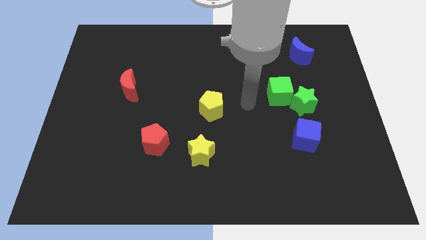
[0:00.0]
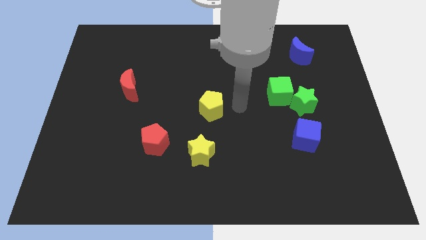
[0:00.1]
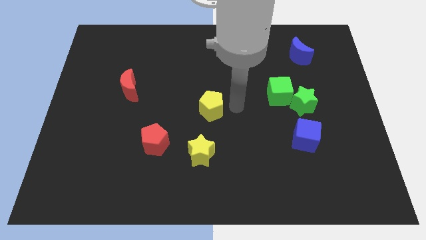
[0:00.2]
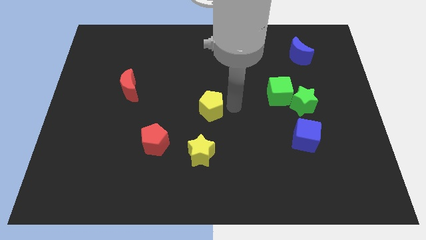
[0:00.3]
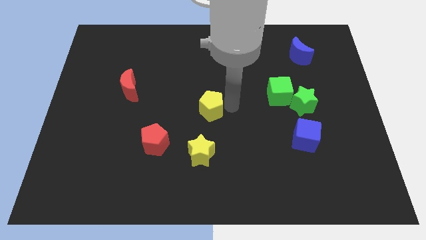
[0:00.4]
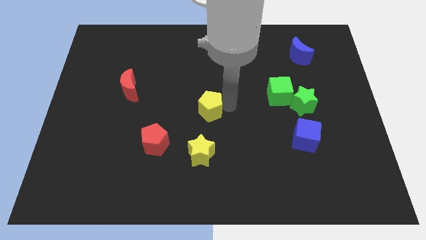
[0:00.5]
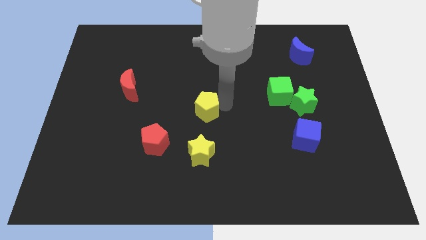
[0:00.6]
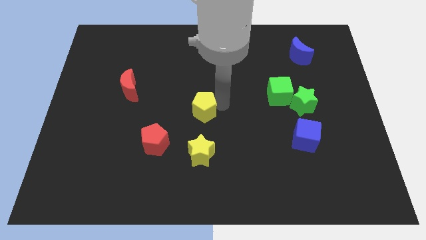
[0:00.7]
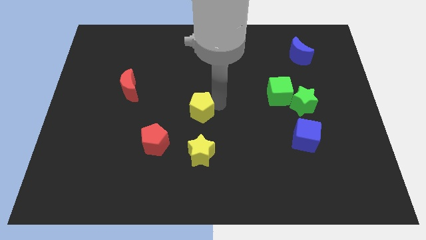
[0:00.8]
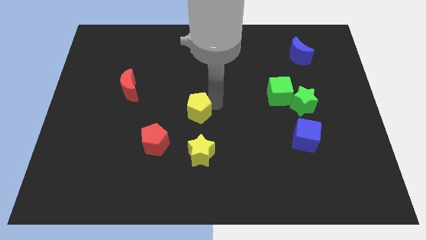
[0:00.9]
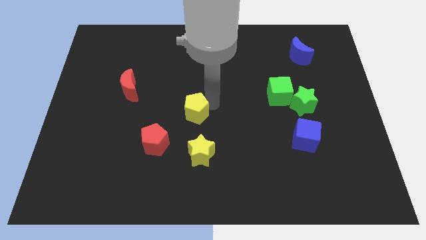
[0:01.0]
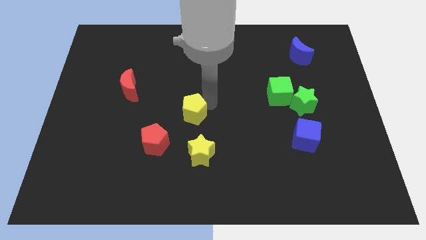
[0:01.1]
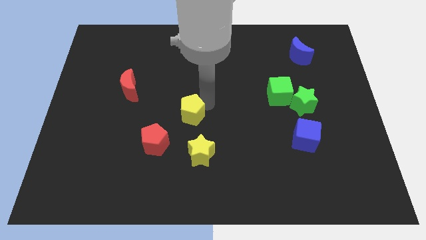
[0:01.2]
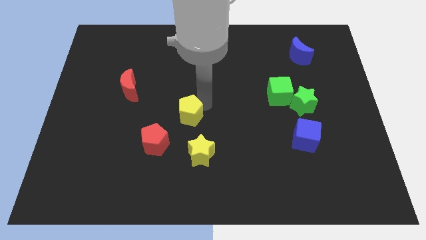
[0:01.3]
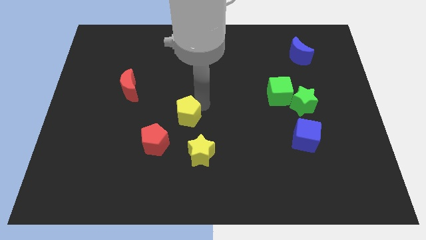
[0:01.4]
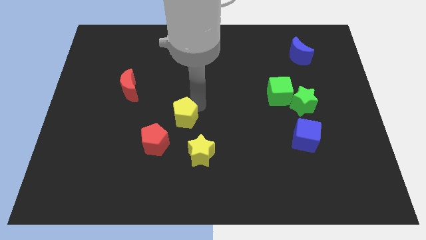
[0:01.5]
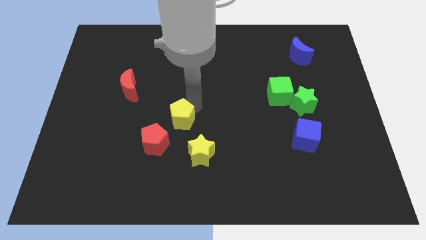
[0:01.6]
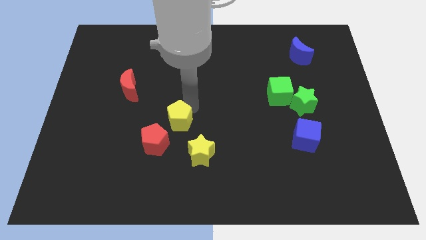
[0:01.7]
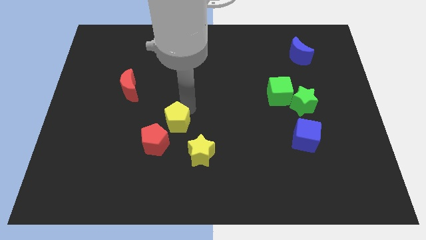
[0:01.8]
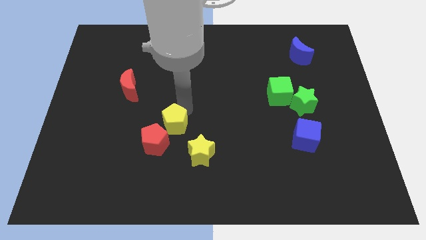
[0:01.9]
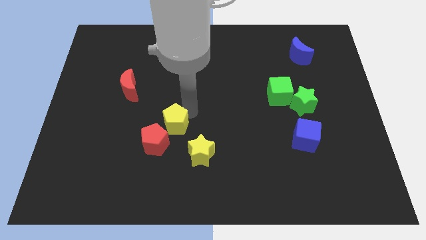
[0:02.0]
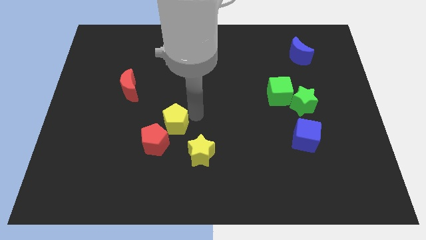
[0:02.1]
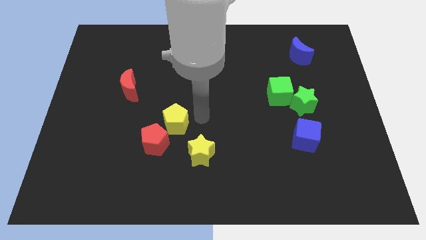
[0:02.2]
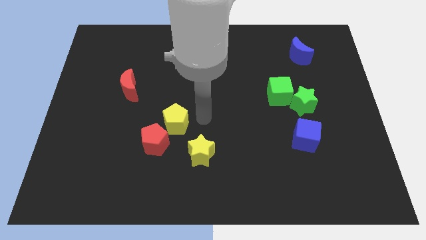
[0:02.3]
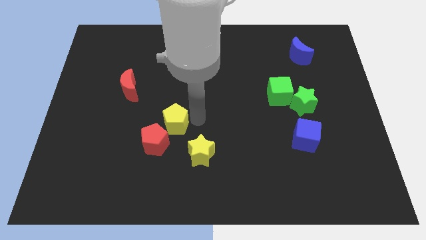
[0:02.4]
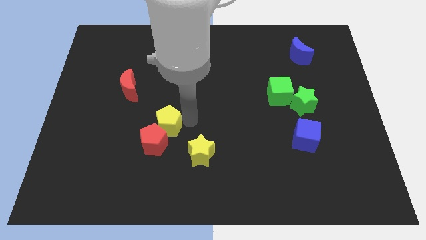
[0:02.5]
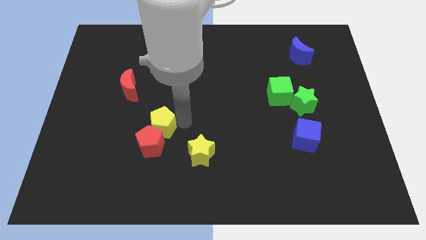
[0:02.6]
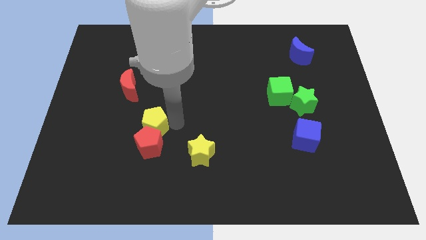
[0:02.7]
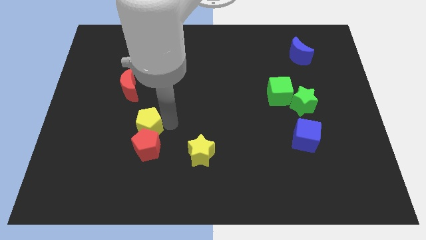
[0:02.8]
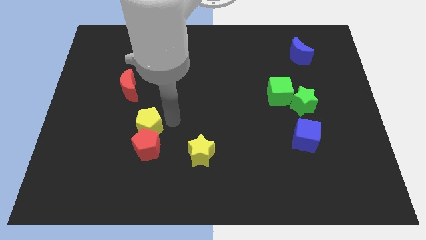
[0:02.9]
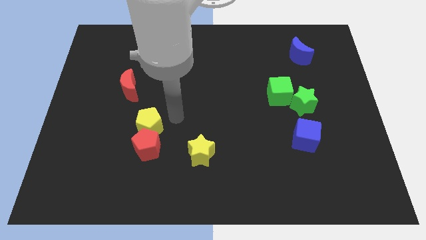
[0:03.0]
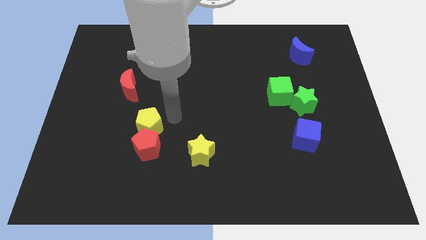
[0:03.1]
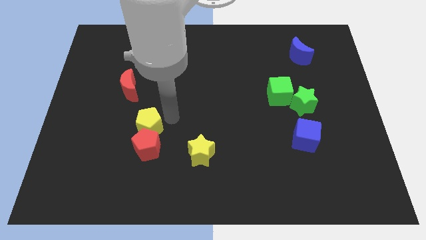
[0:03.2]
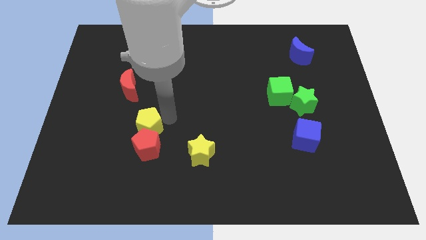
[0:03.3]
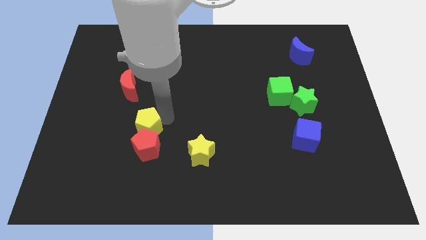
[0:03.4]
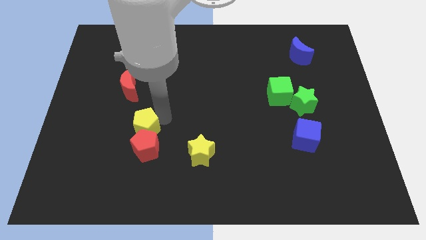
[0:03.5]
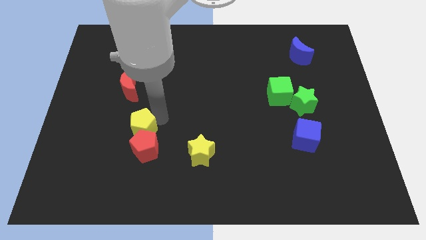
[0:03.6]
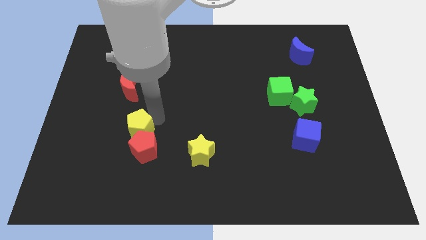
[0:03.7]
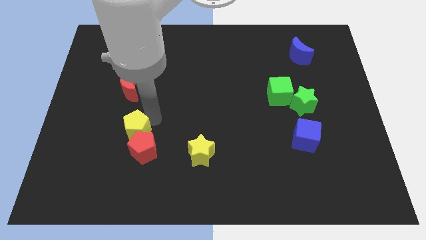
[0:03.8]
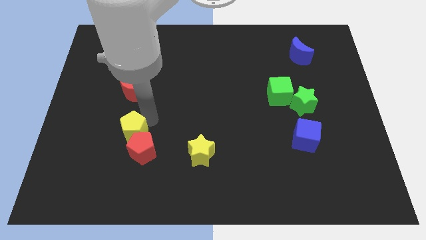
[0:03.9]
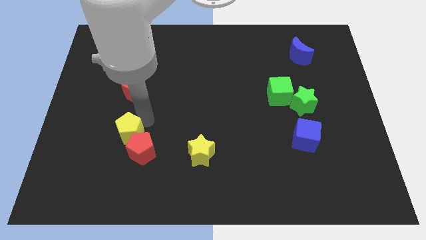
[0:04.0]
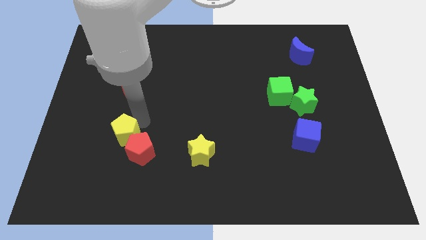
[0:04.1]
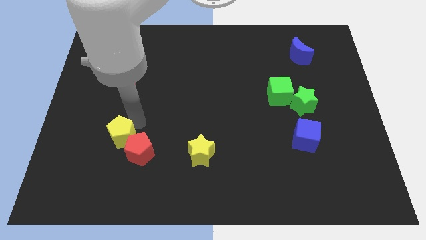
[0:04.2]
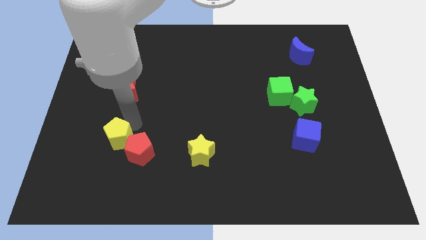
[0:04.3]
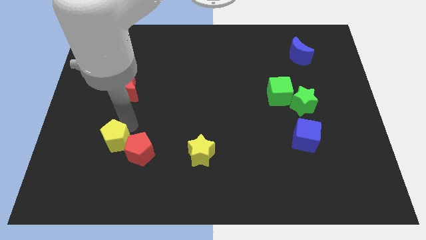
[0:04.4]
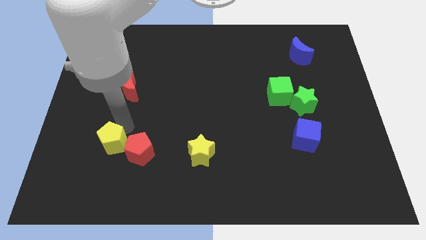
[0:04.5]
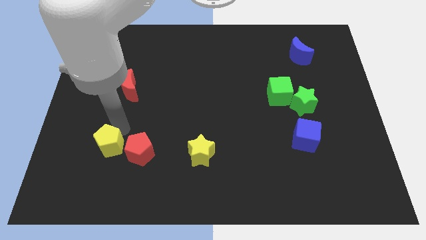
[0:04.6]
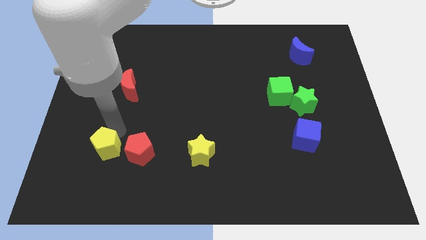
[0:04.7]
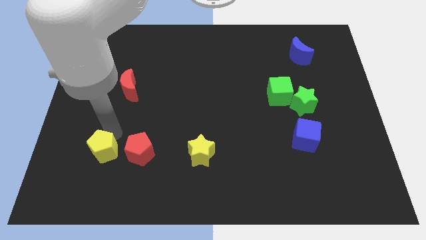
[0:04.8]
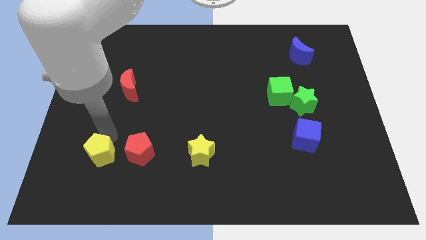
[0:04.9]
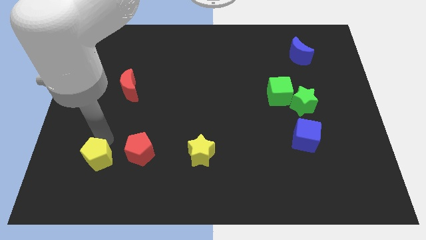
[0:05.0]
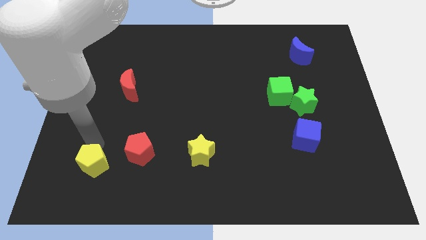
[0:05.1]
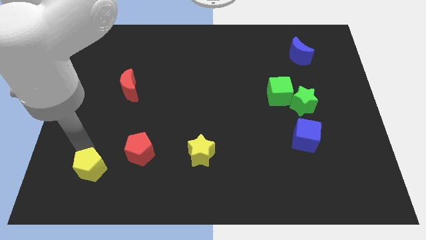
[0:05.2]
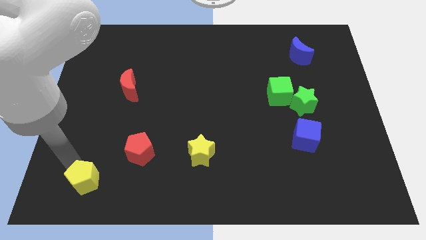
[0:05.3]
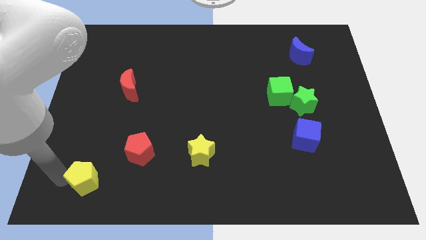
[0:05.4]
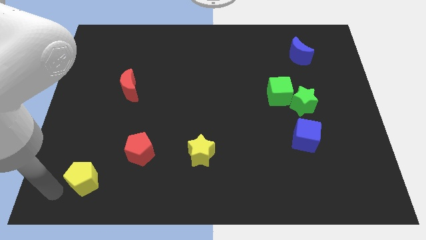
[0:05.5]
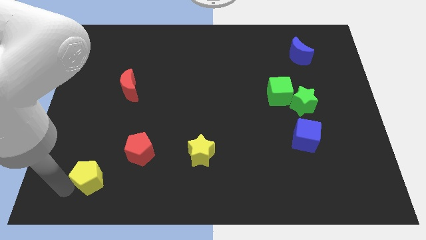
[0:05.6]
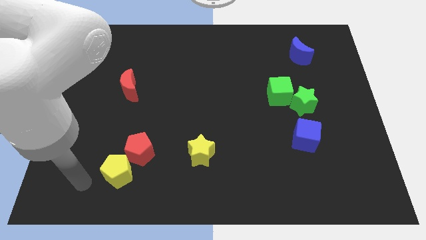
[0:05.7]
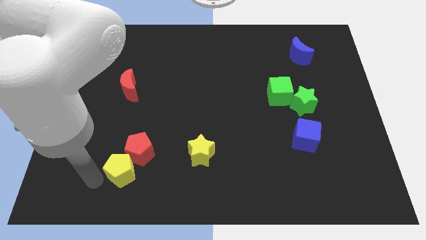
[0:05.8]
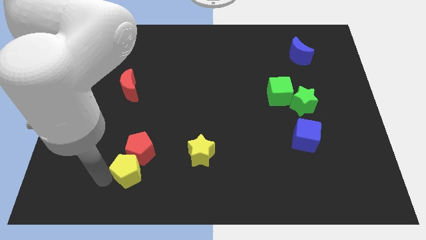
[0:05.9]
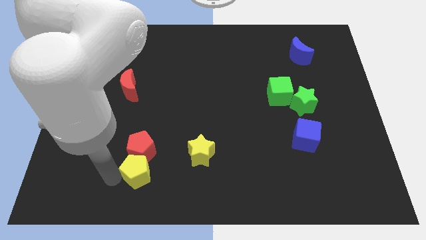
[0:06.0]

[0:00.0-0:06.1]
move the yellow pentagon just left of the yellow star

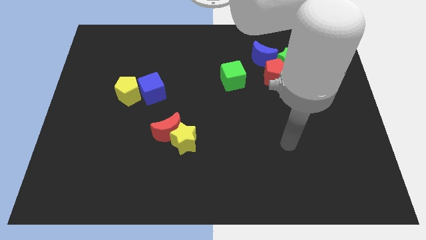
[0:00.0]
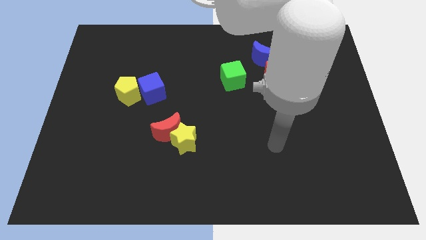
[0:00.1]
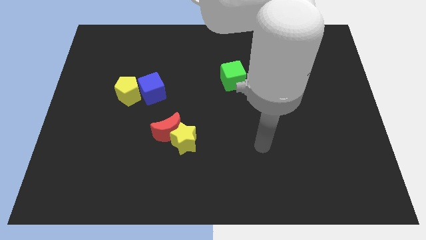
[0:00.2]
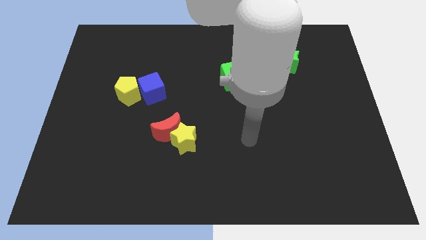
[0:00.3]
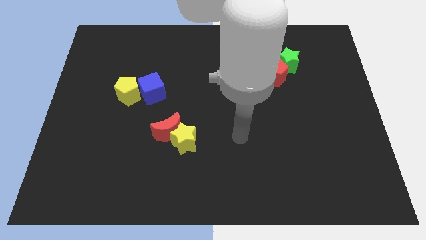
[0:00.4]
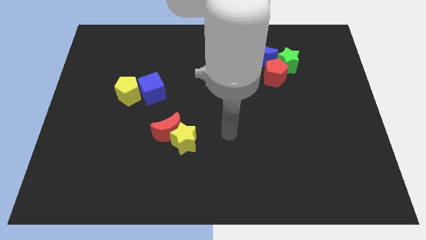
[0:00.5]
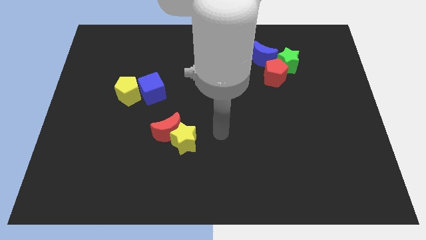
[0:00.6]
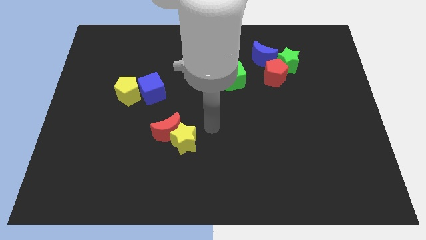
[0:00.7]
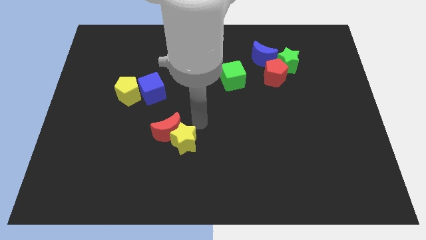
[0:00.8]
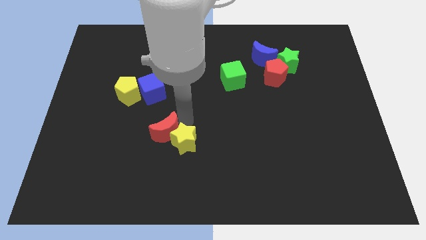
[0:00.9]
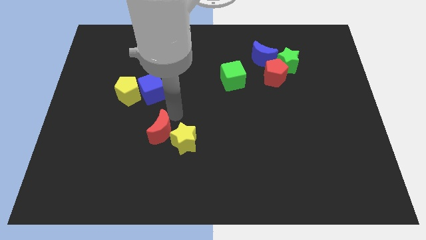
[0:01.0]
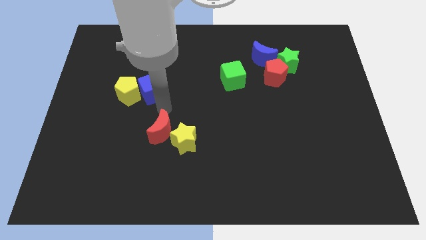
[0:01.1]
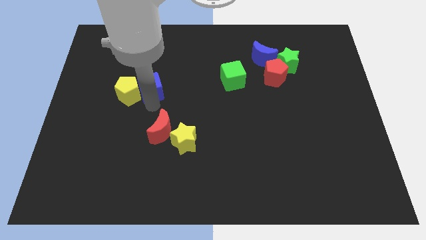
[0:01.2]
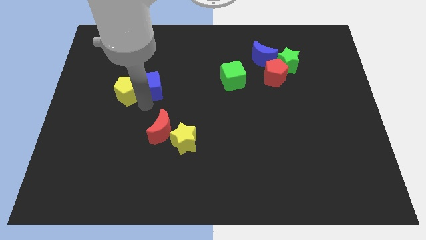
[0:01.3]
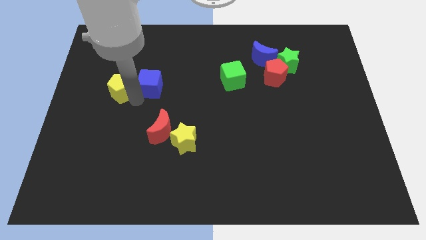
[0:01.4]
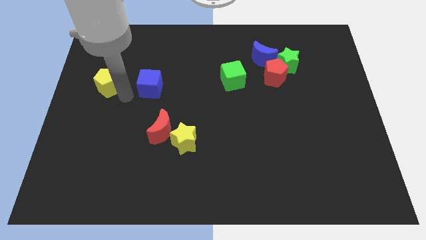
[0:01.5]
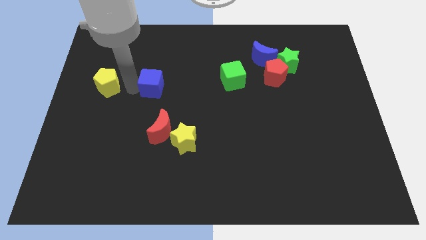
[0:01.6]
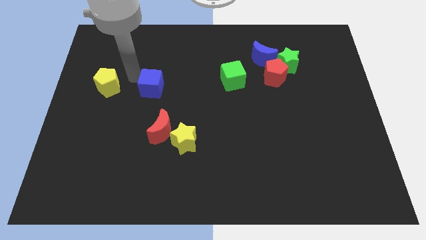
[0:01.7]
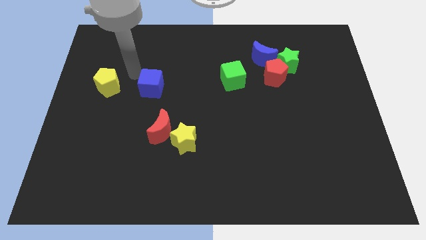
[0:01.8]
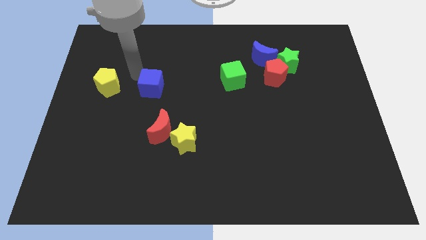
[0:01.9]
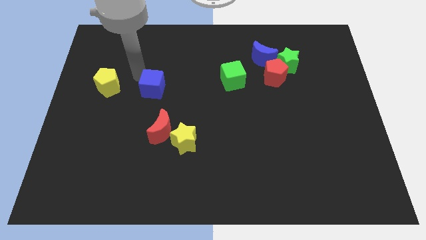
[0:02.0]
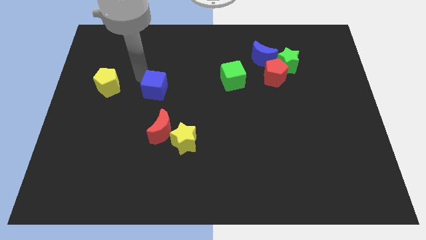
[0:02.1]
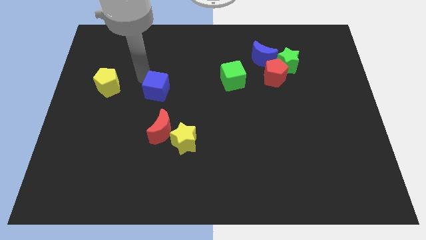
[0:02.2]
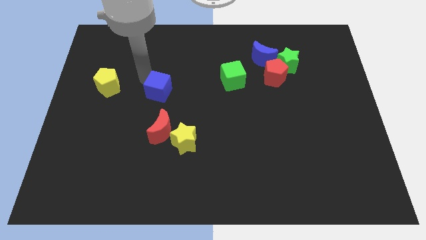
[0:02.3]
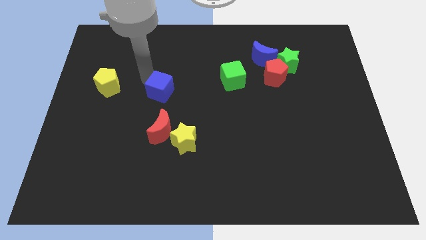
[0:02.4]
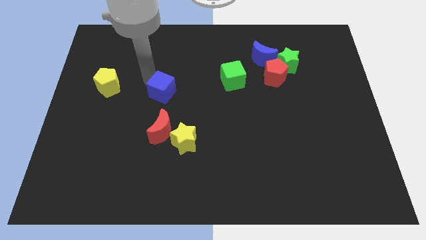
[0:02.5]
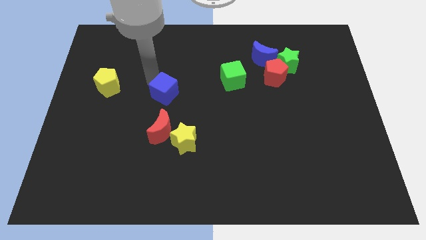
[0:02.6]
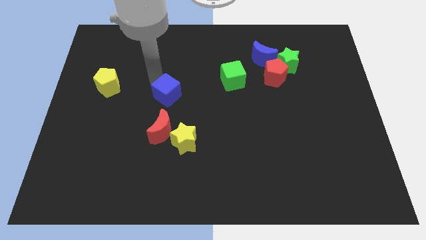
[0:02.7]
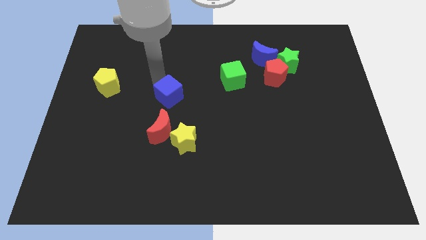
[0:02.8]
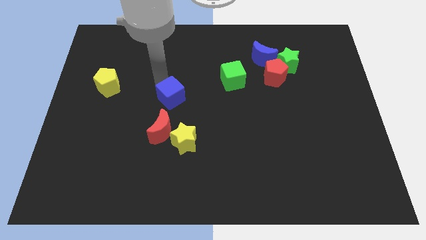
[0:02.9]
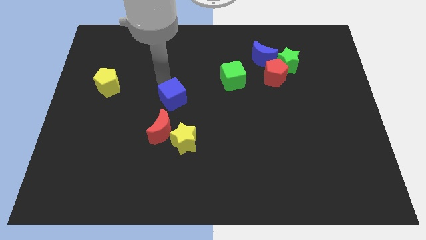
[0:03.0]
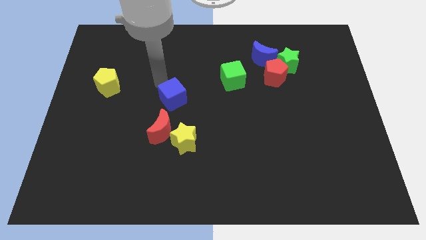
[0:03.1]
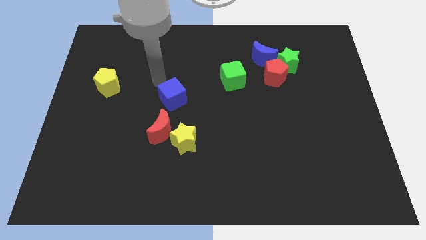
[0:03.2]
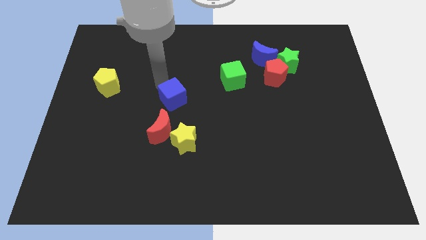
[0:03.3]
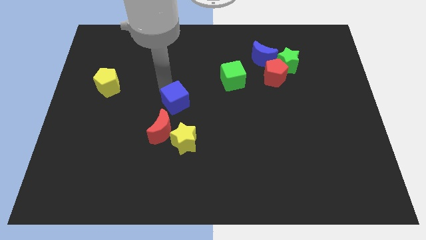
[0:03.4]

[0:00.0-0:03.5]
slide the blue cube diagonally up and to the right of the red moon
